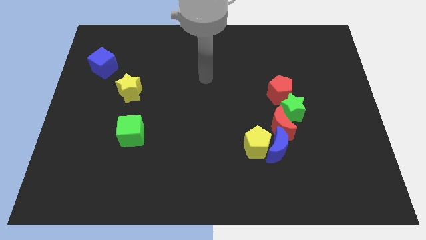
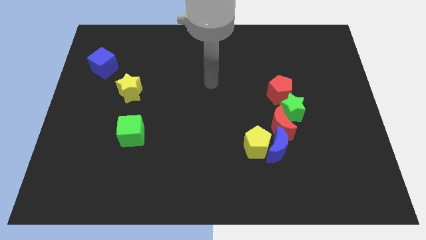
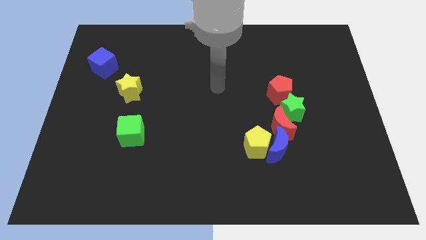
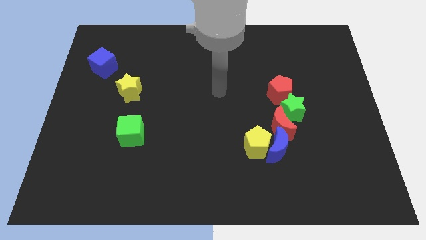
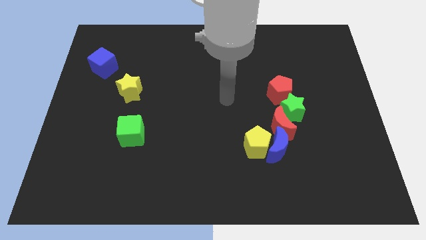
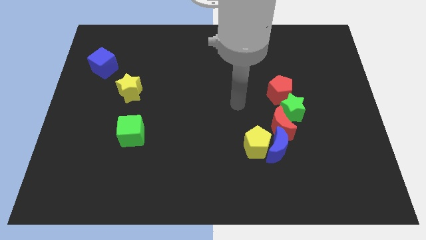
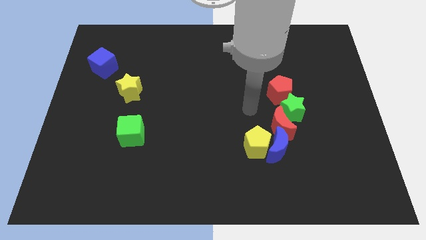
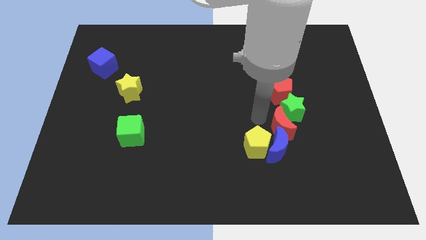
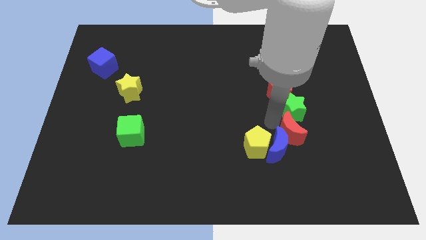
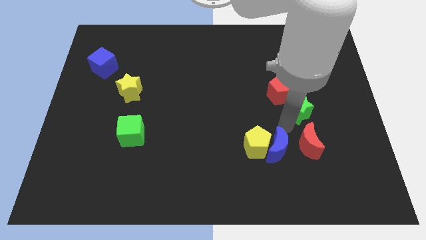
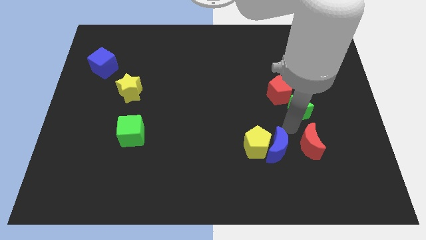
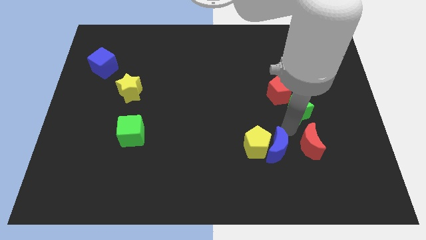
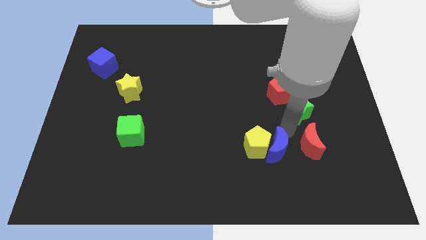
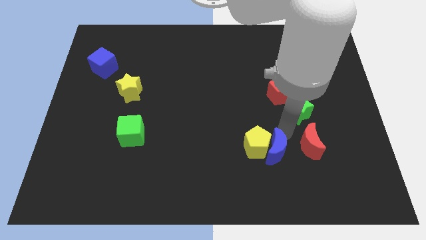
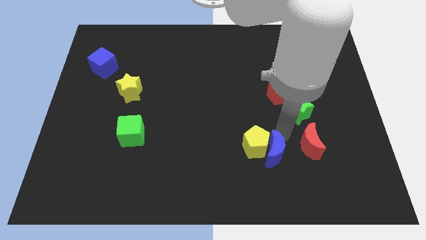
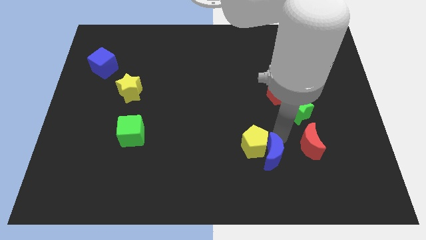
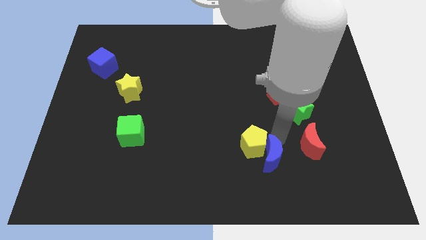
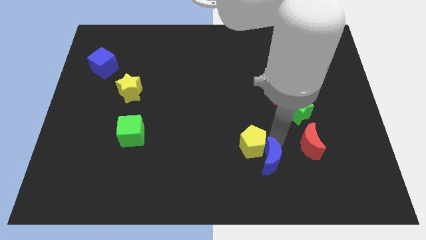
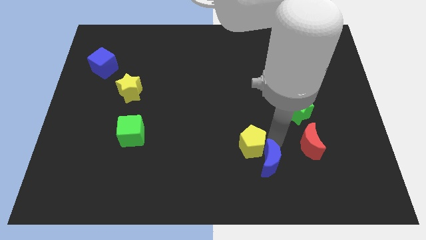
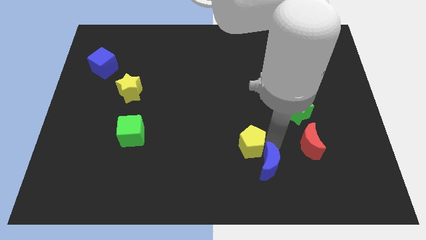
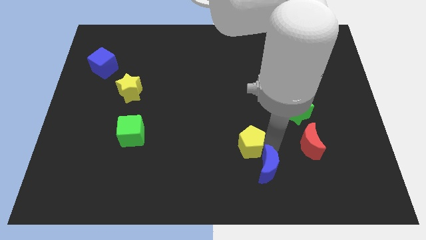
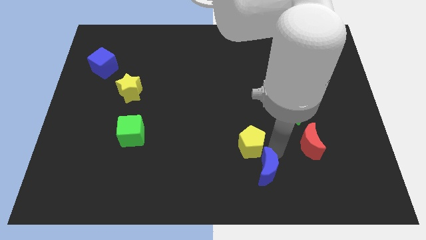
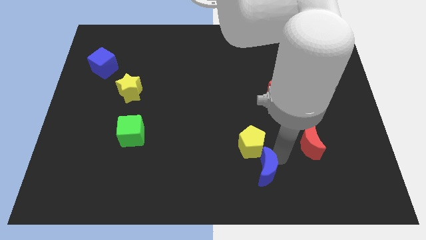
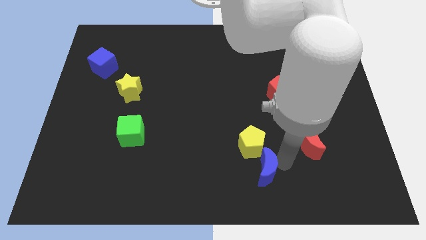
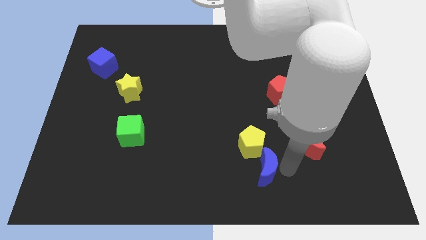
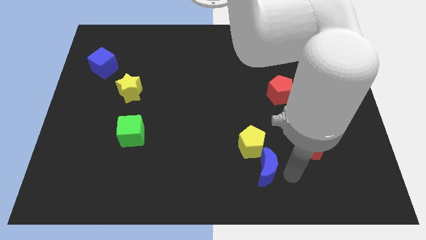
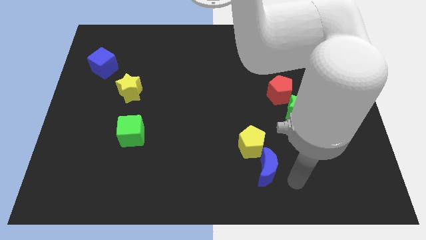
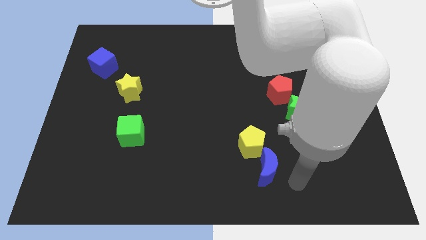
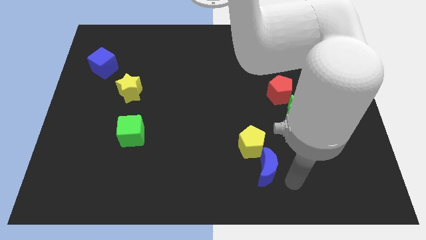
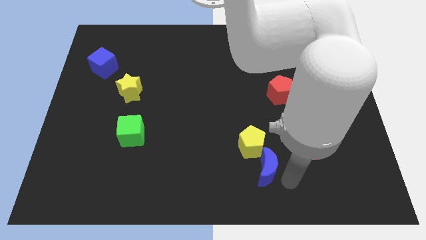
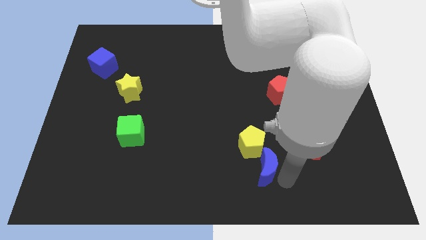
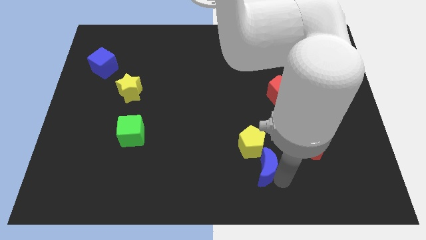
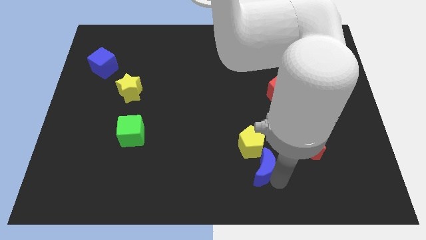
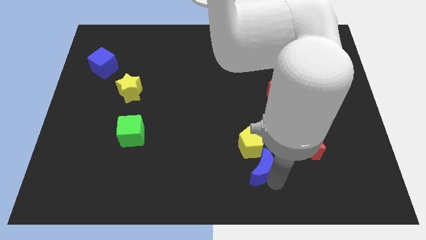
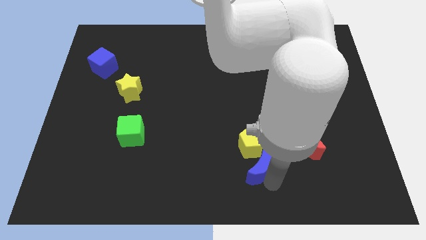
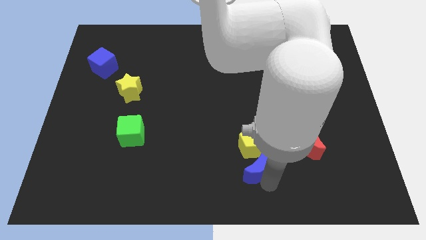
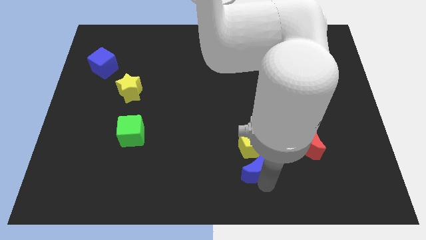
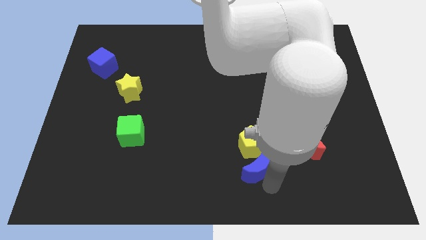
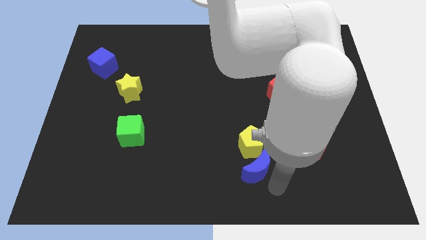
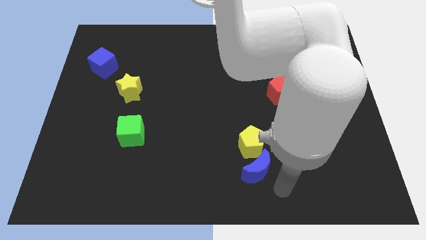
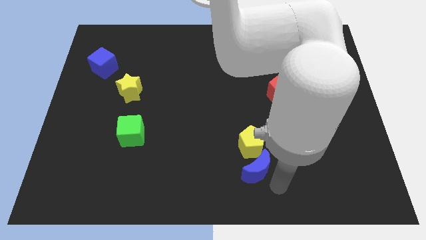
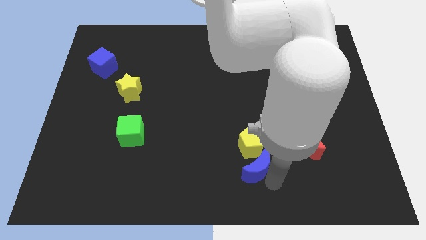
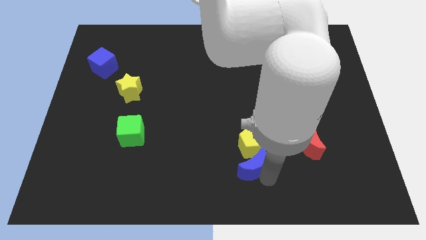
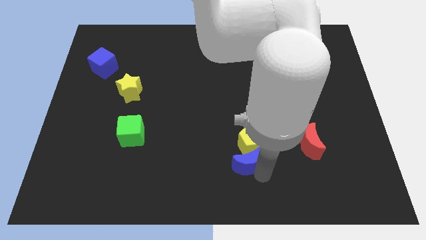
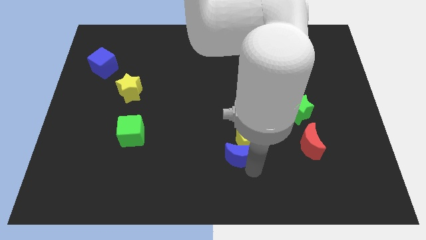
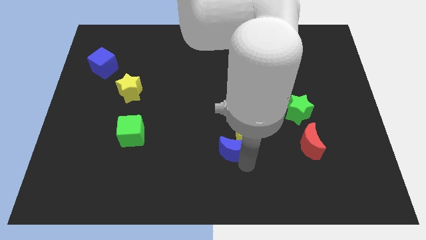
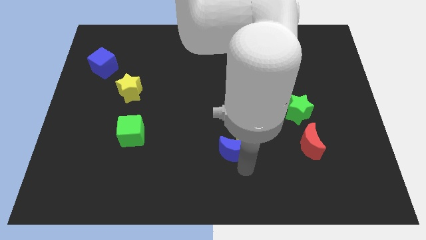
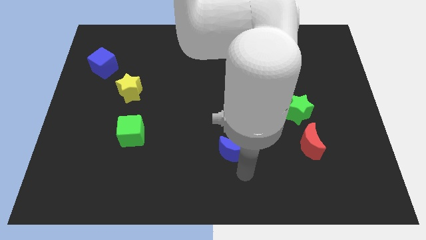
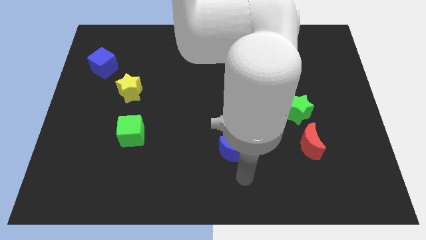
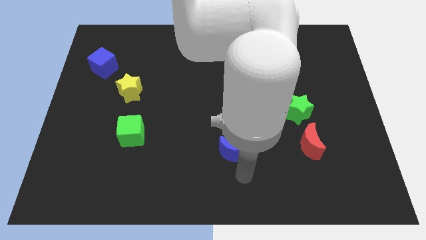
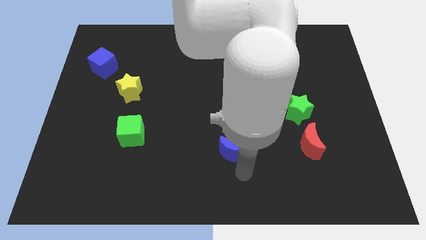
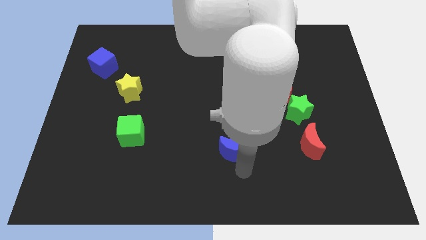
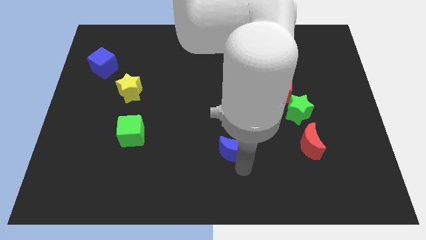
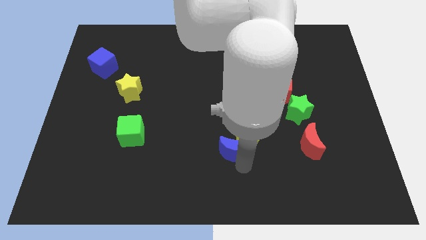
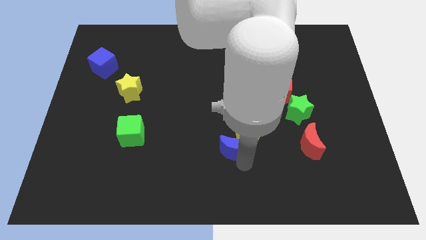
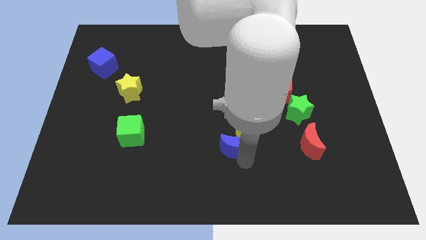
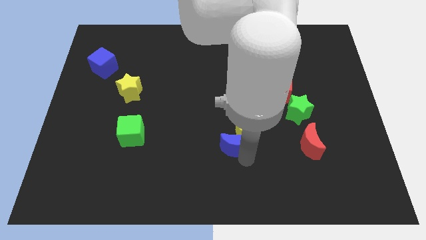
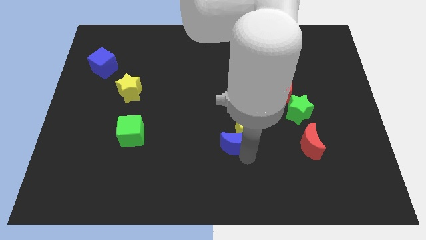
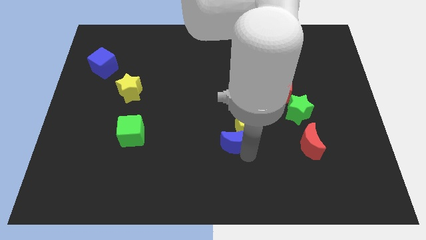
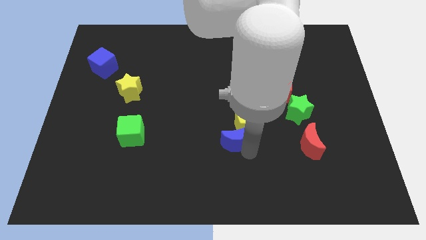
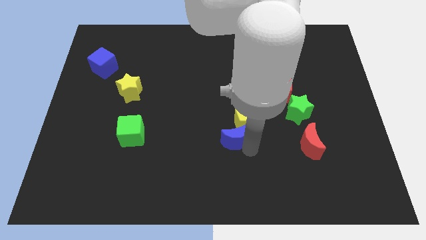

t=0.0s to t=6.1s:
move the blue moon a bit up and left diagonally

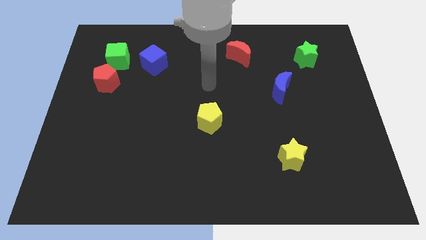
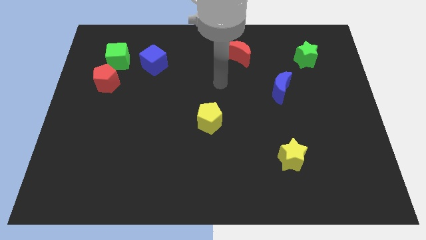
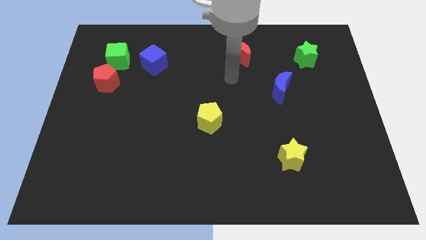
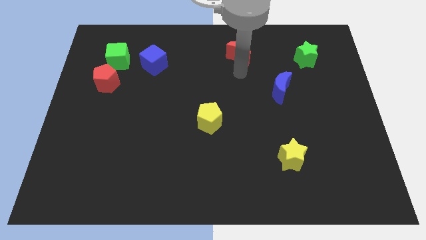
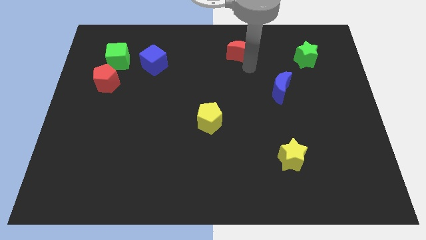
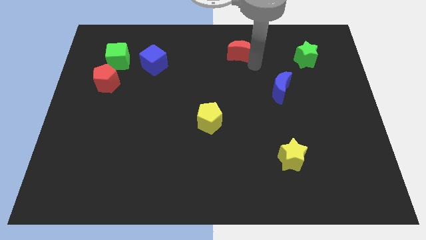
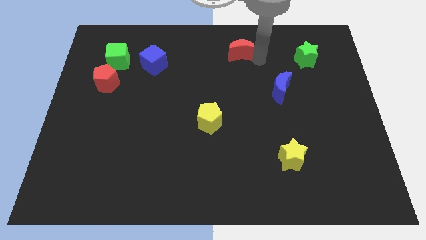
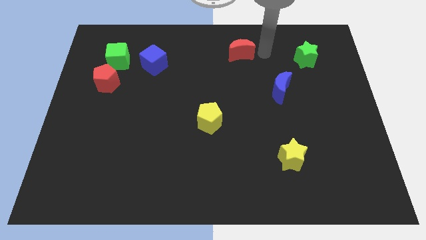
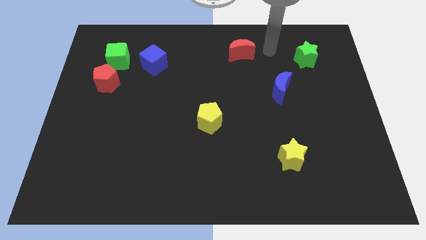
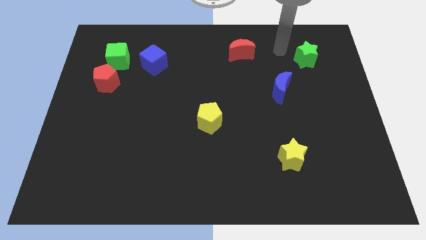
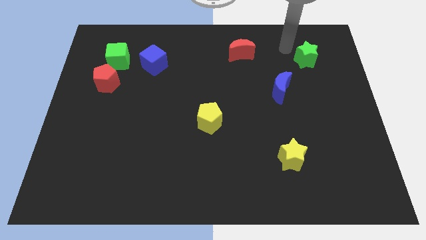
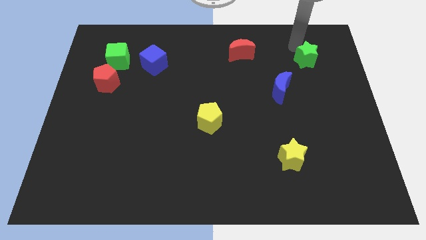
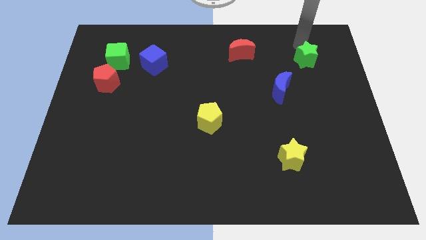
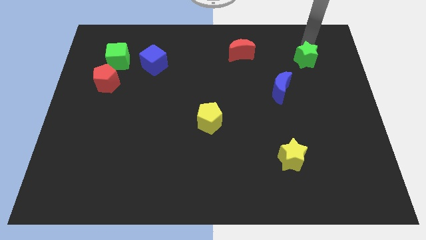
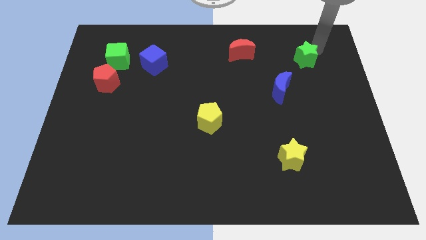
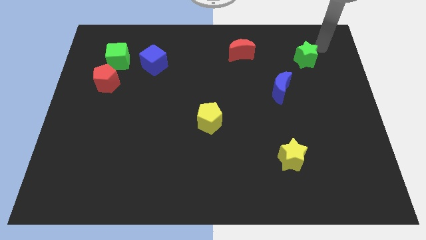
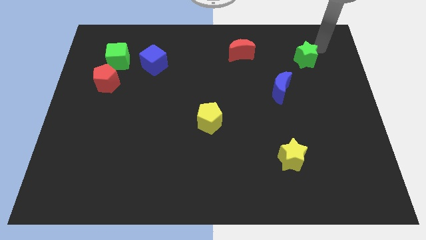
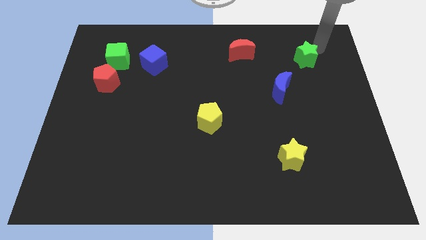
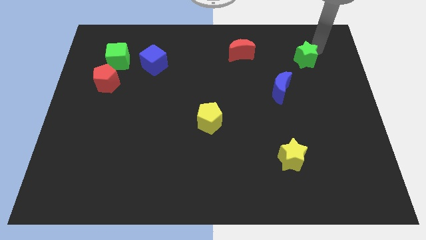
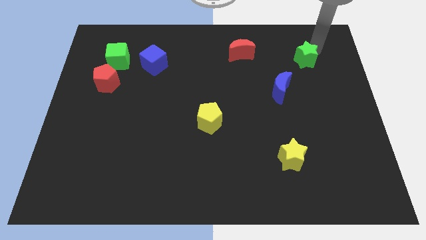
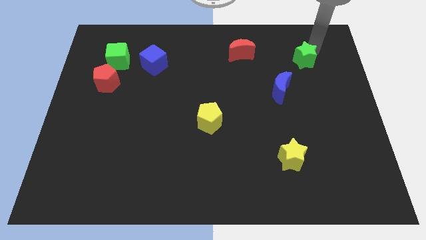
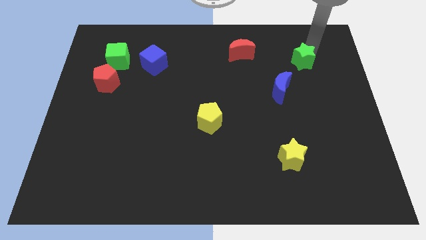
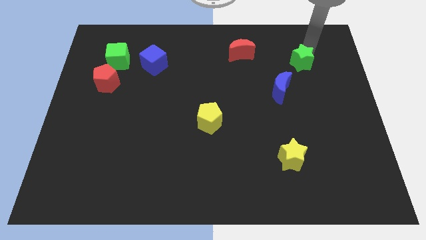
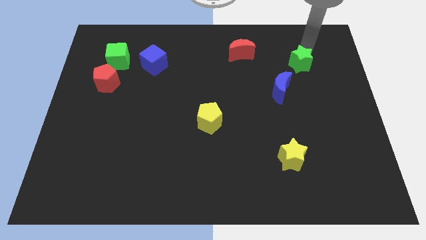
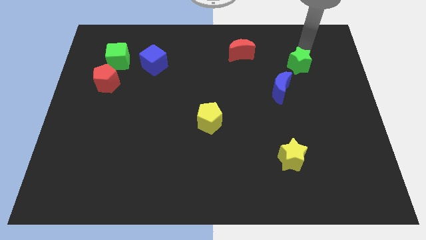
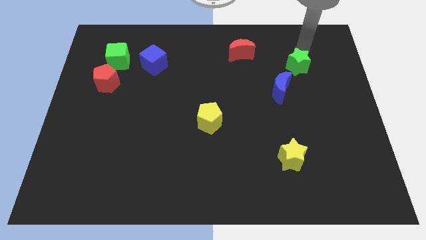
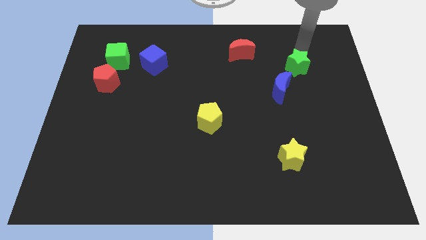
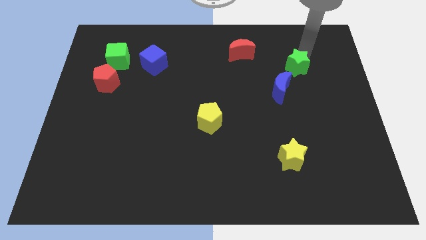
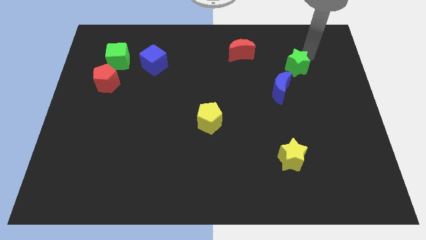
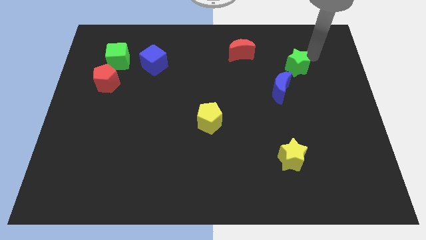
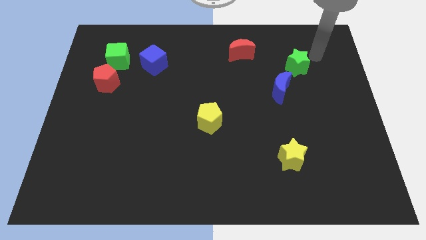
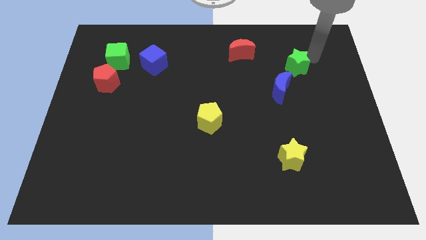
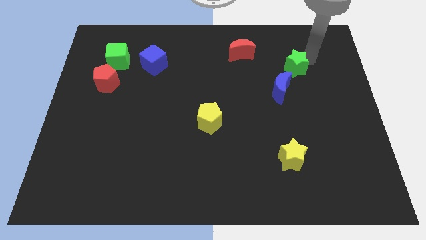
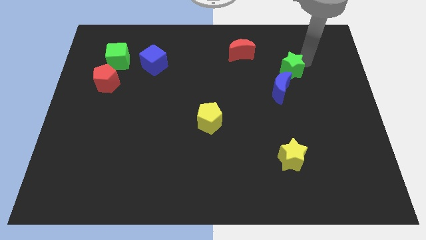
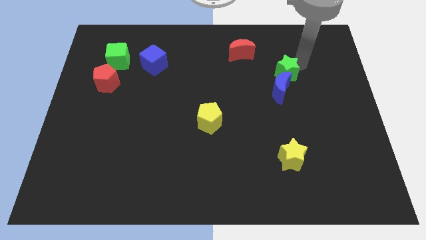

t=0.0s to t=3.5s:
slide the green star diagonally down and left slightly
